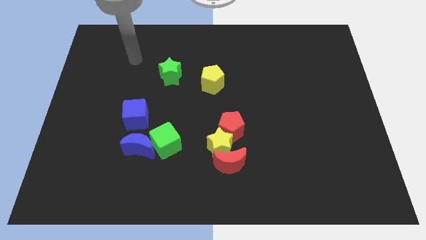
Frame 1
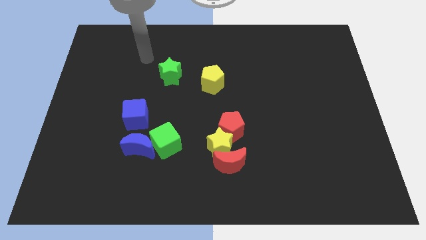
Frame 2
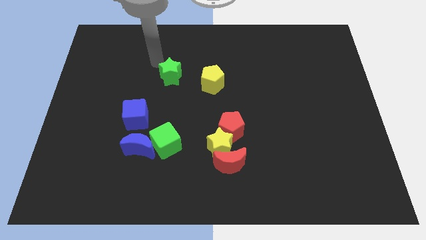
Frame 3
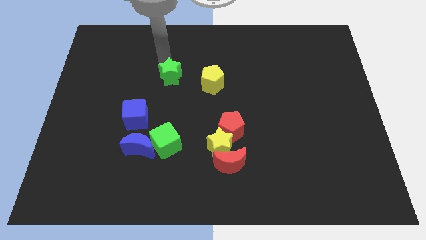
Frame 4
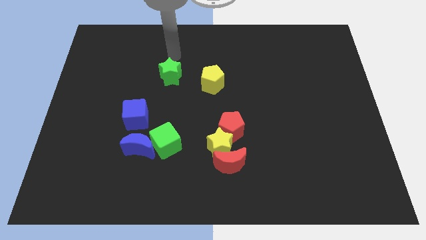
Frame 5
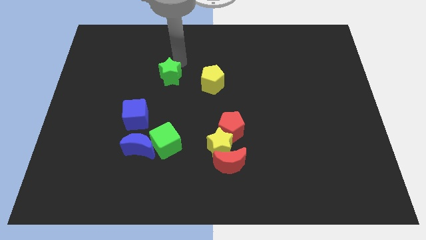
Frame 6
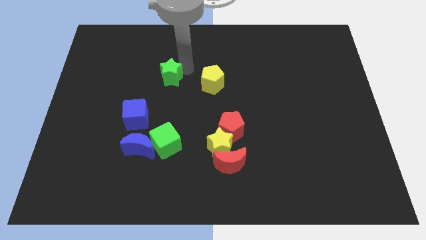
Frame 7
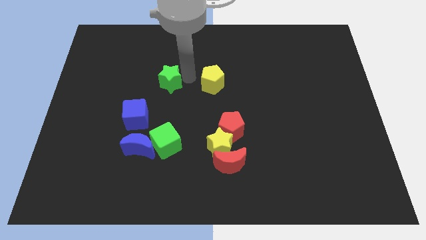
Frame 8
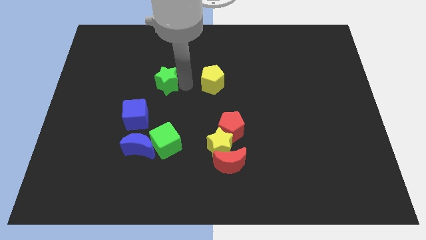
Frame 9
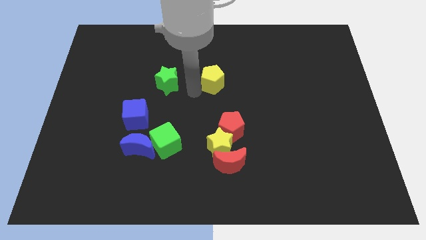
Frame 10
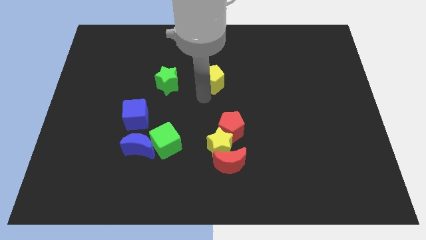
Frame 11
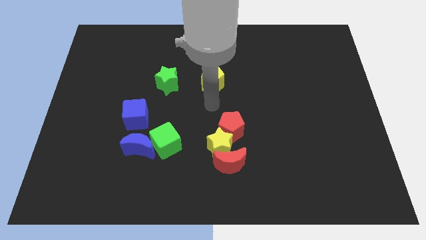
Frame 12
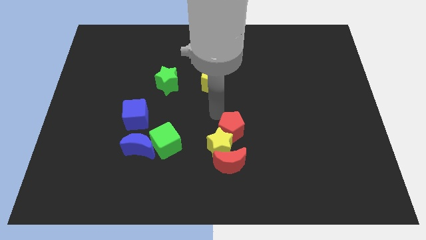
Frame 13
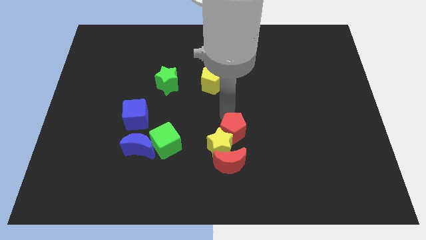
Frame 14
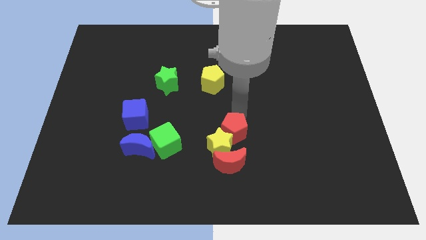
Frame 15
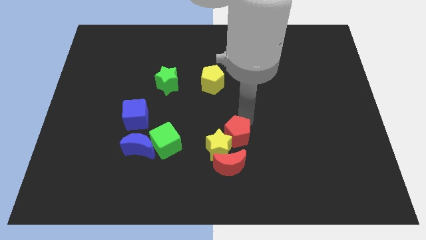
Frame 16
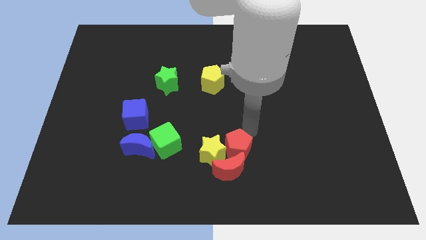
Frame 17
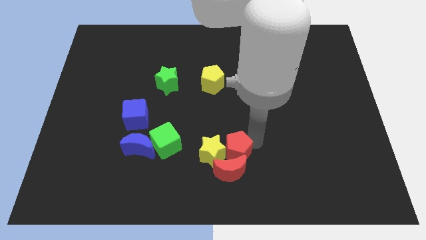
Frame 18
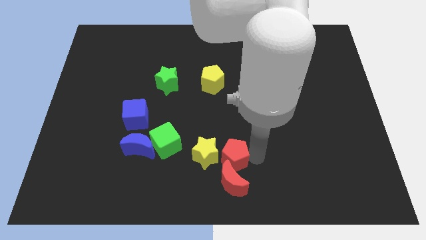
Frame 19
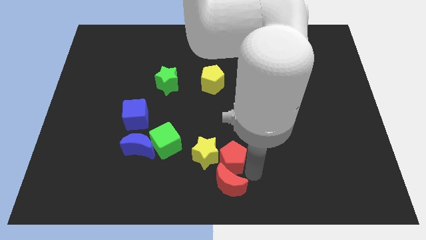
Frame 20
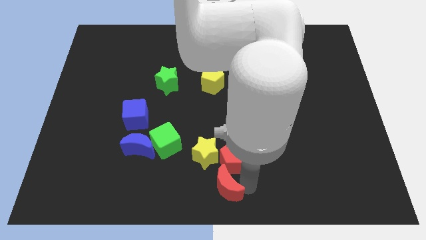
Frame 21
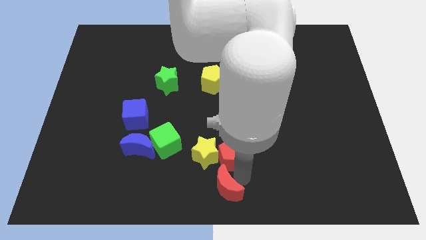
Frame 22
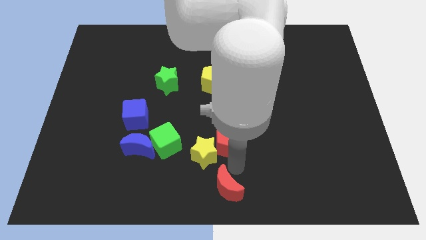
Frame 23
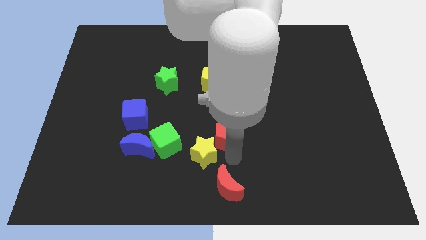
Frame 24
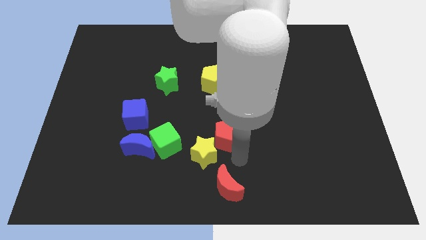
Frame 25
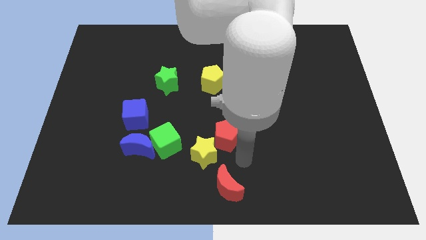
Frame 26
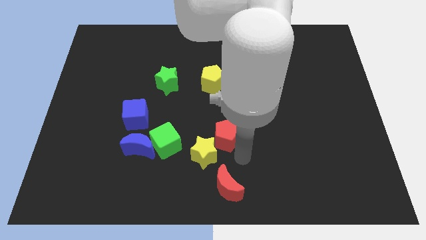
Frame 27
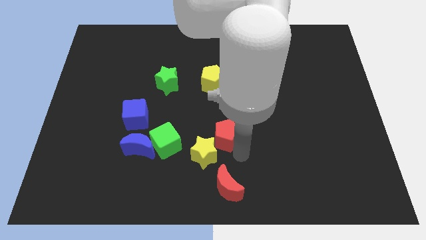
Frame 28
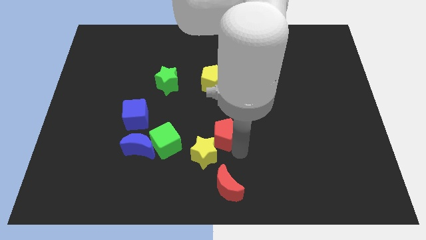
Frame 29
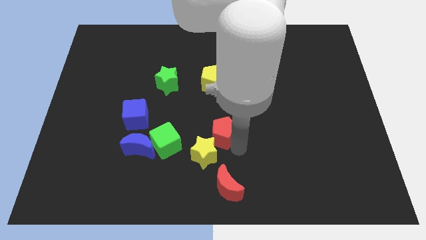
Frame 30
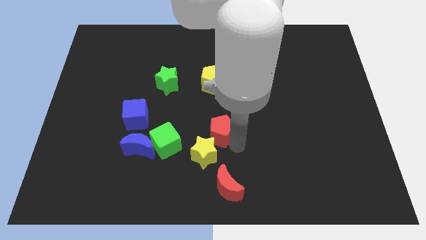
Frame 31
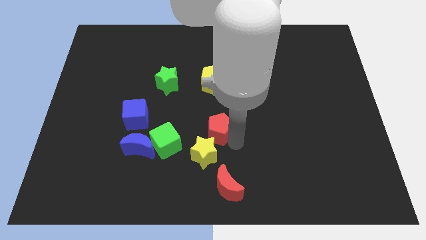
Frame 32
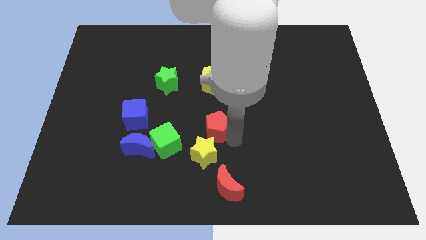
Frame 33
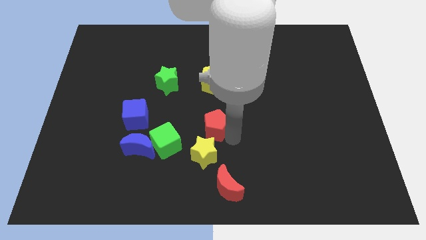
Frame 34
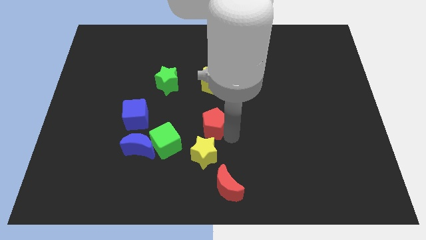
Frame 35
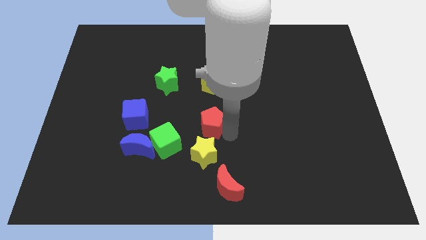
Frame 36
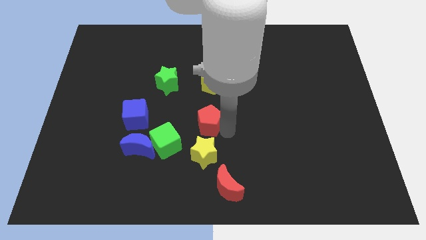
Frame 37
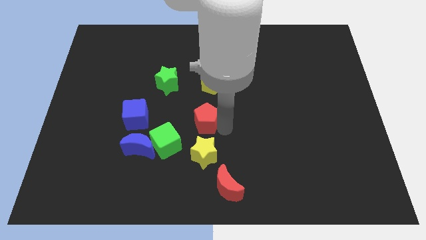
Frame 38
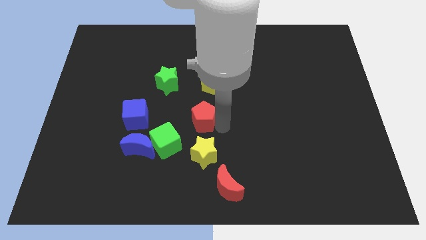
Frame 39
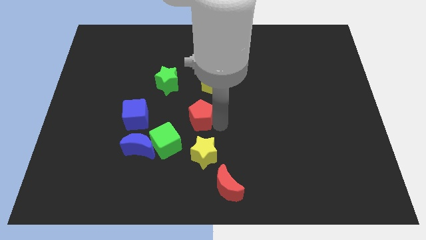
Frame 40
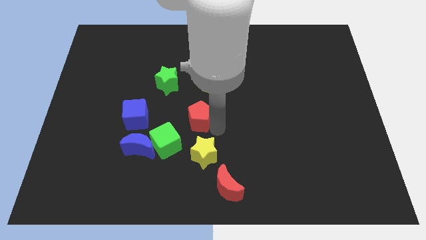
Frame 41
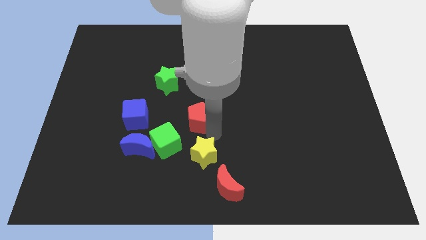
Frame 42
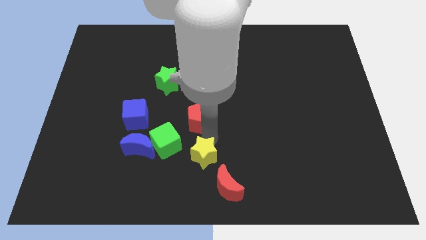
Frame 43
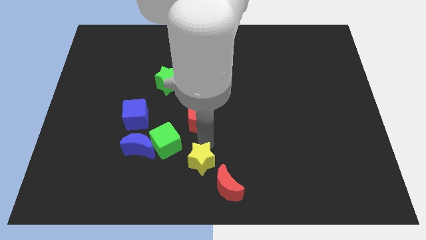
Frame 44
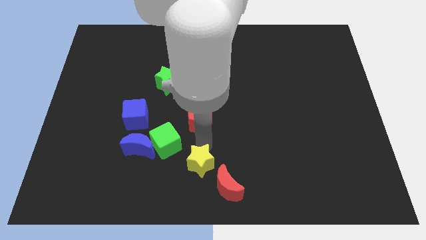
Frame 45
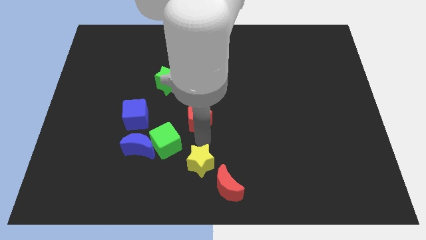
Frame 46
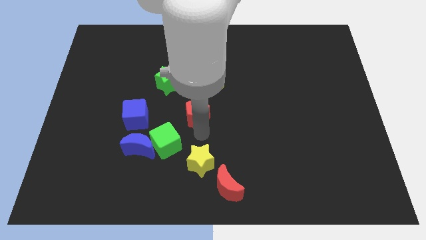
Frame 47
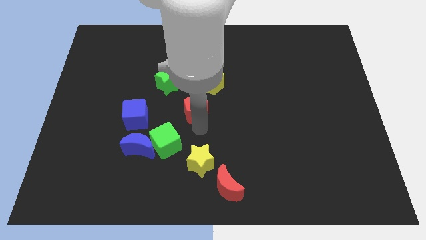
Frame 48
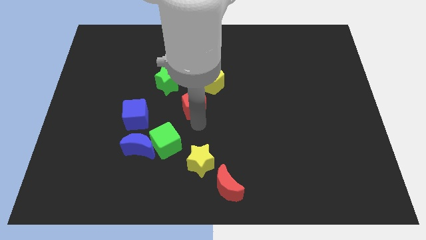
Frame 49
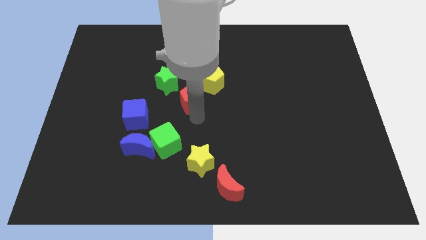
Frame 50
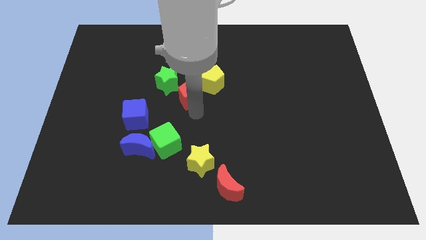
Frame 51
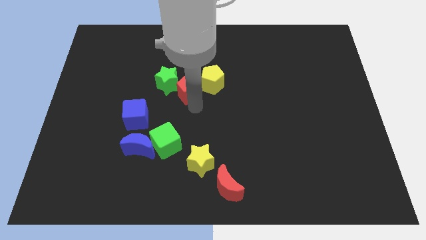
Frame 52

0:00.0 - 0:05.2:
put the red pentagon towards the green star

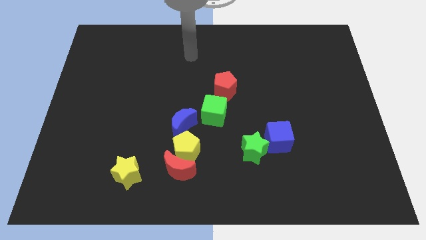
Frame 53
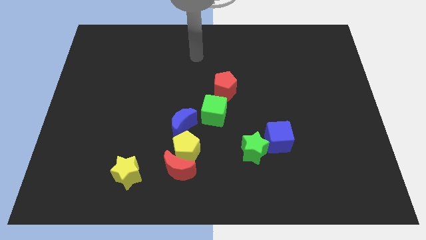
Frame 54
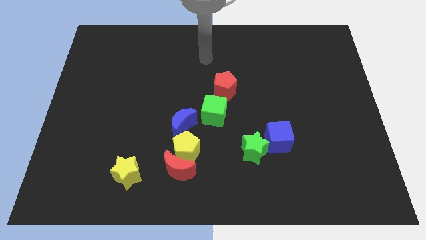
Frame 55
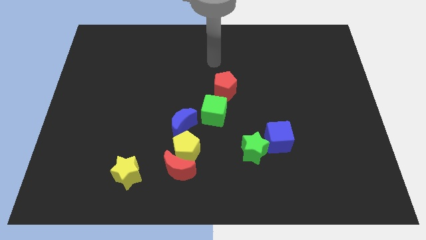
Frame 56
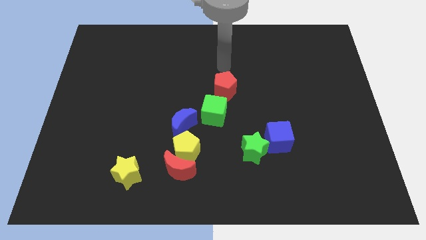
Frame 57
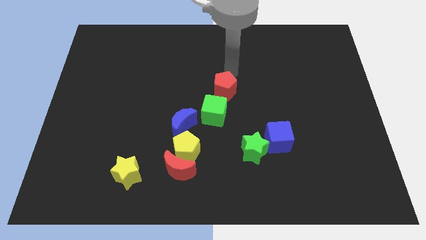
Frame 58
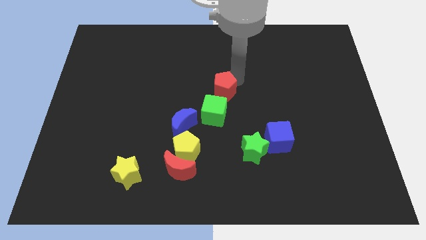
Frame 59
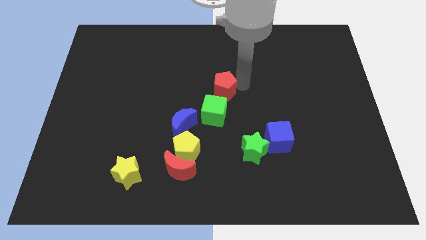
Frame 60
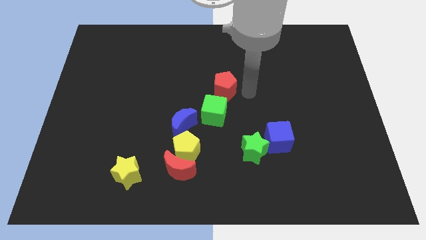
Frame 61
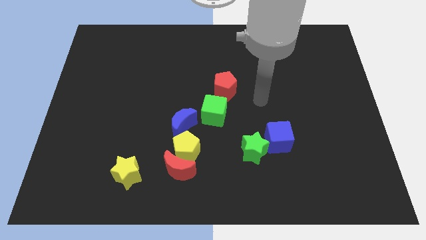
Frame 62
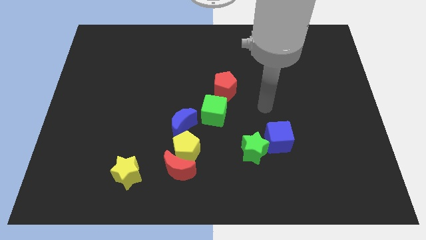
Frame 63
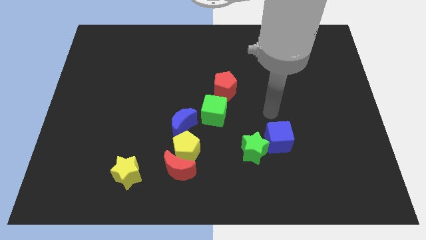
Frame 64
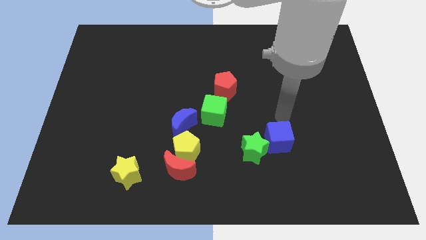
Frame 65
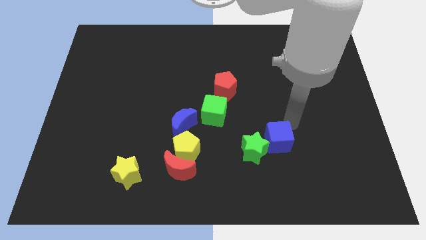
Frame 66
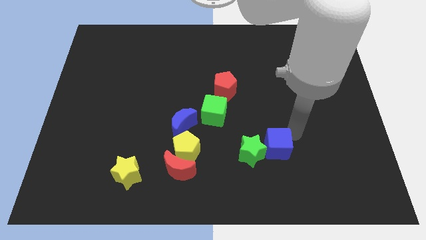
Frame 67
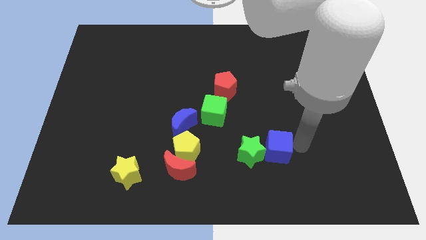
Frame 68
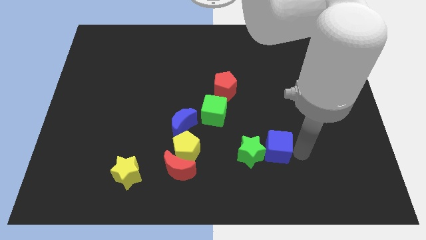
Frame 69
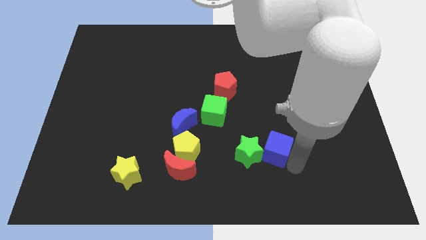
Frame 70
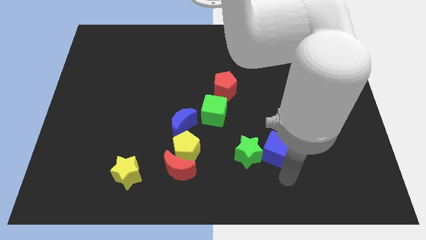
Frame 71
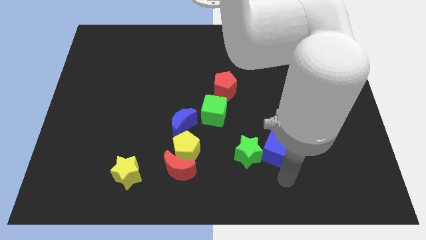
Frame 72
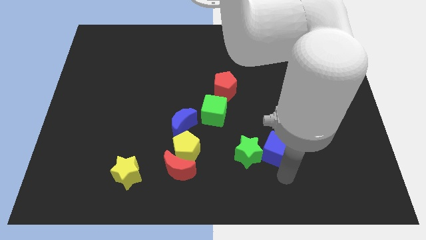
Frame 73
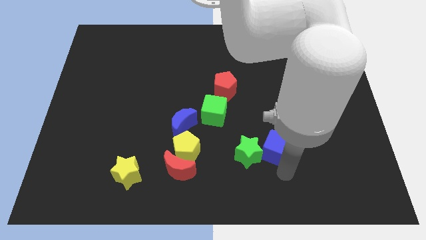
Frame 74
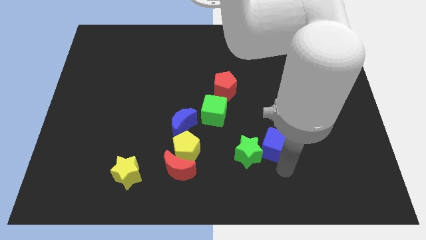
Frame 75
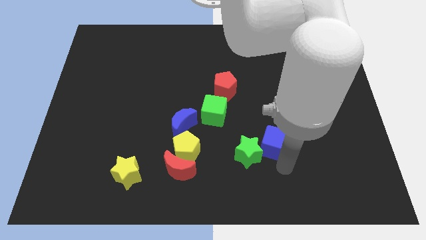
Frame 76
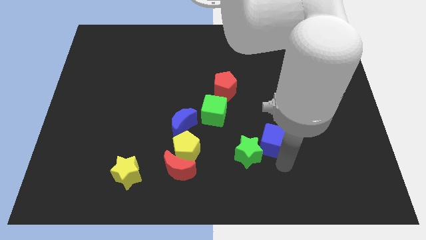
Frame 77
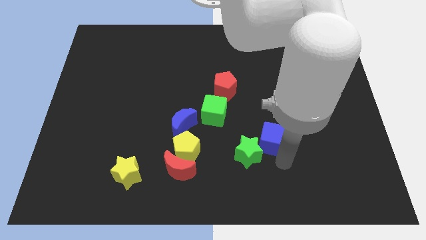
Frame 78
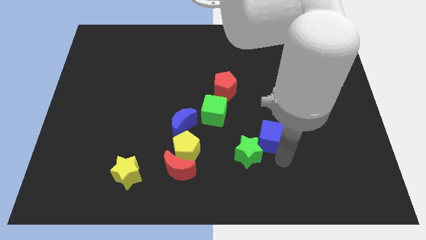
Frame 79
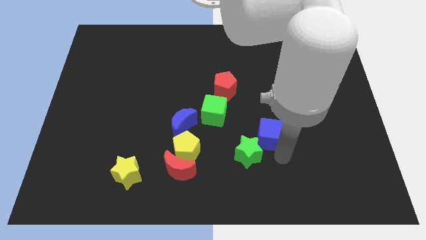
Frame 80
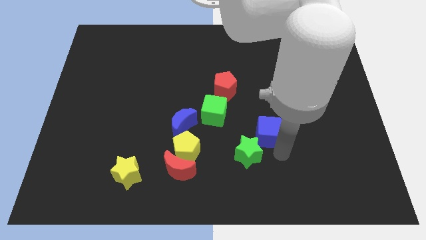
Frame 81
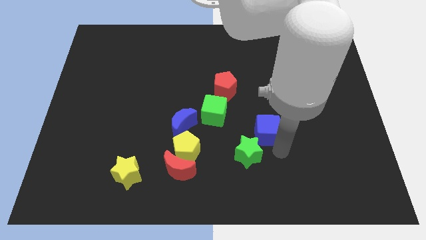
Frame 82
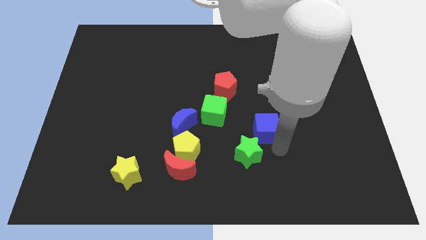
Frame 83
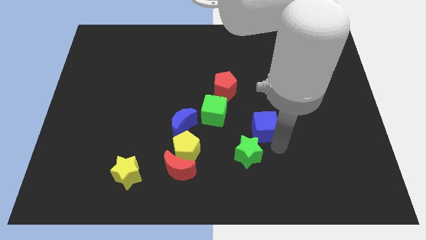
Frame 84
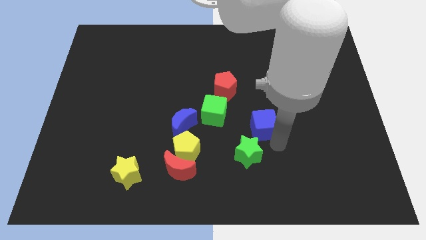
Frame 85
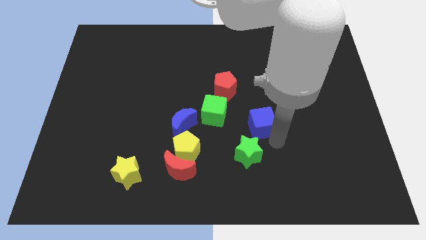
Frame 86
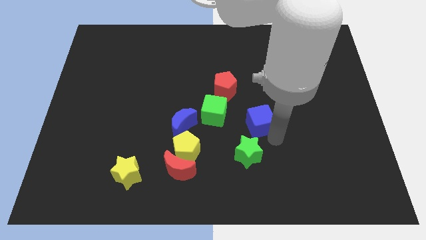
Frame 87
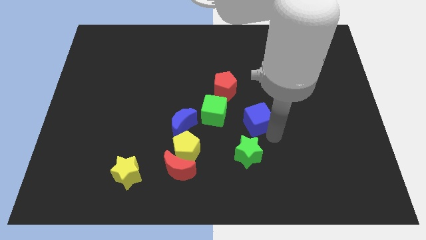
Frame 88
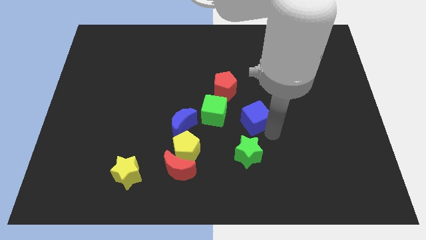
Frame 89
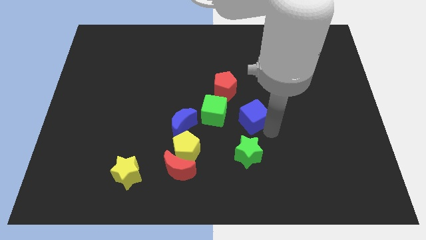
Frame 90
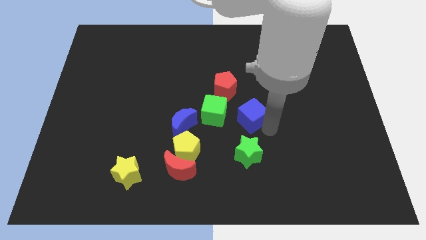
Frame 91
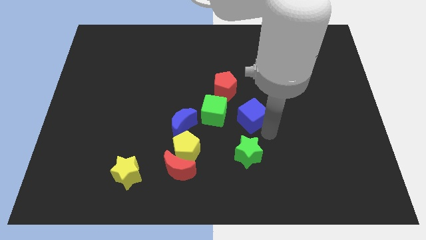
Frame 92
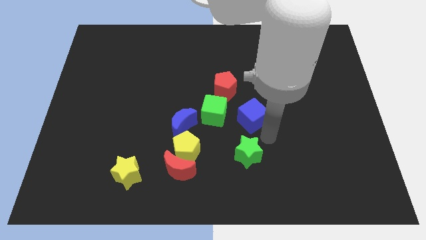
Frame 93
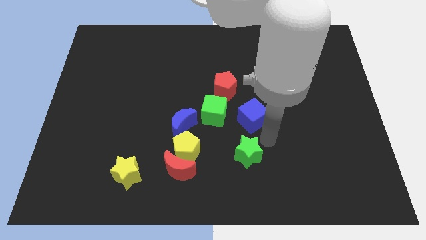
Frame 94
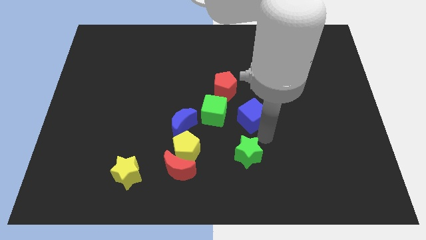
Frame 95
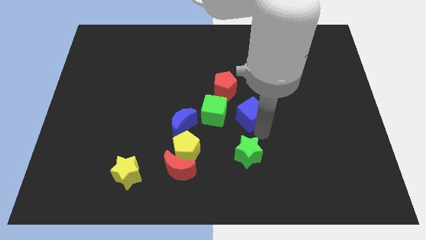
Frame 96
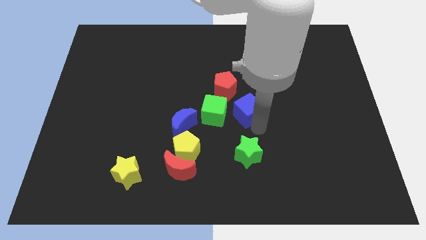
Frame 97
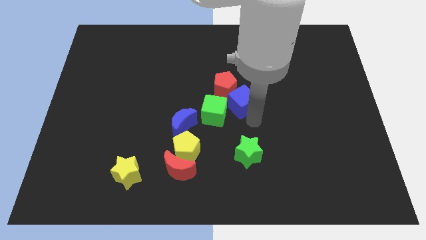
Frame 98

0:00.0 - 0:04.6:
put the blue cube to the red pentagon
